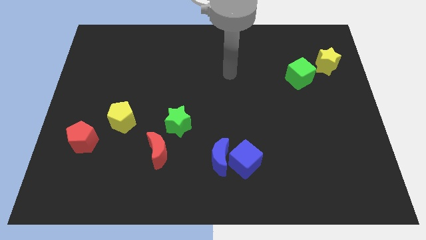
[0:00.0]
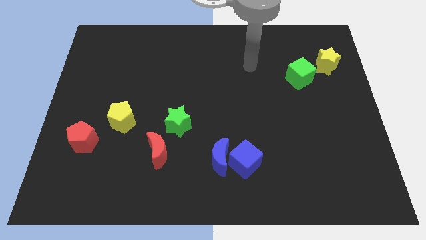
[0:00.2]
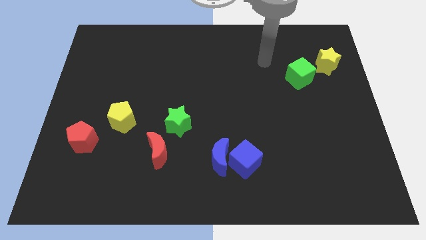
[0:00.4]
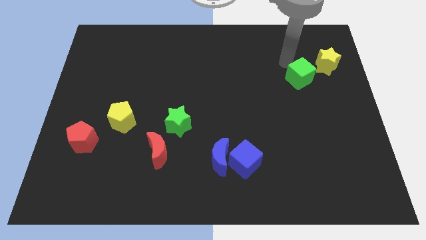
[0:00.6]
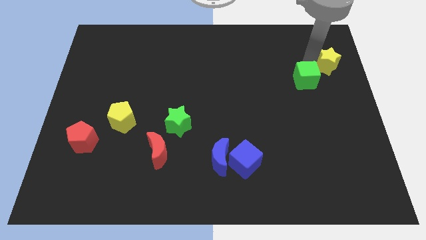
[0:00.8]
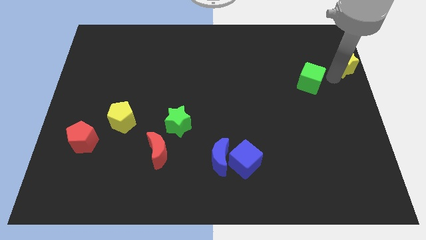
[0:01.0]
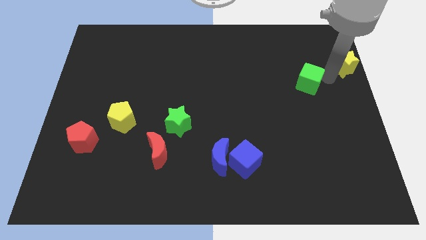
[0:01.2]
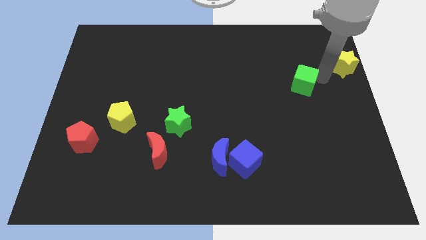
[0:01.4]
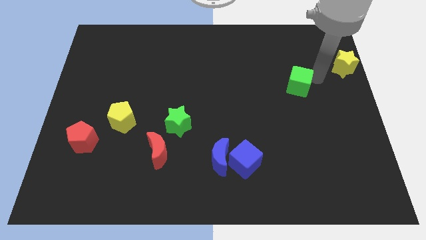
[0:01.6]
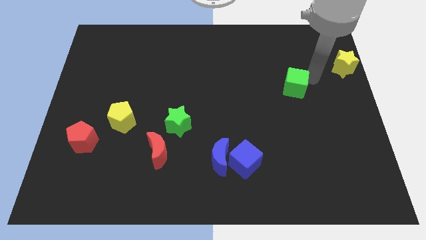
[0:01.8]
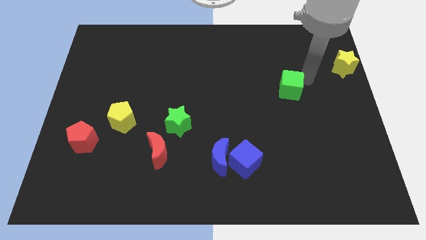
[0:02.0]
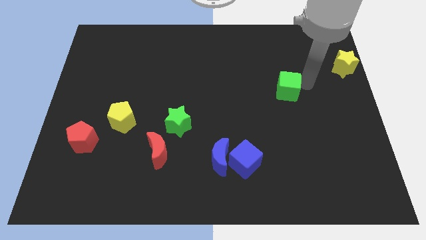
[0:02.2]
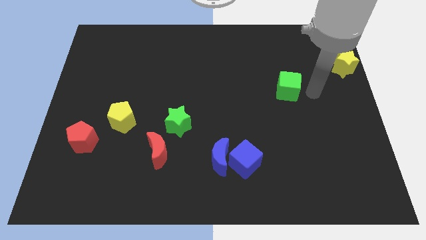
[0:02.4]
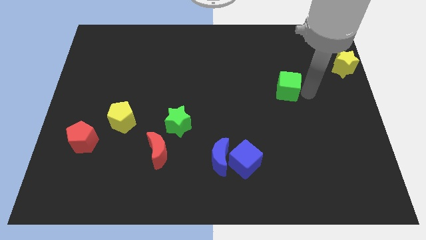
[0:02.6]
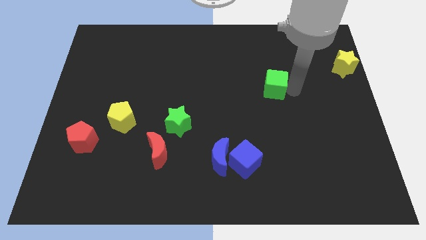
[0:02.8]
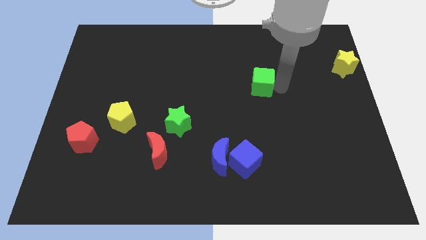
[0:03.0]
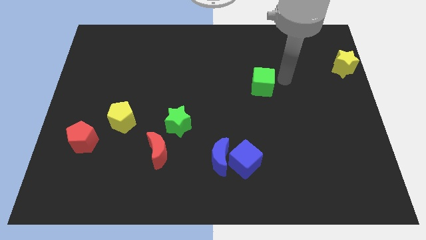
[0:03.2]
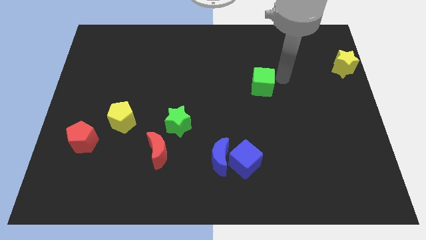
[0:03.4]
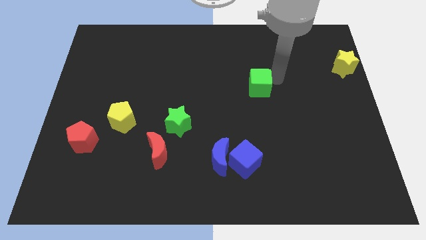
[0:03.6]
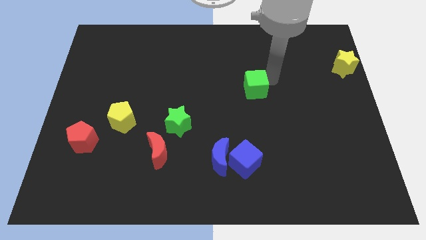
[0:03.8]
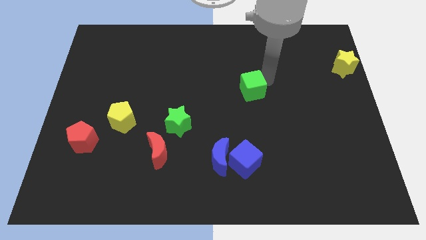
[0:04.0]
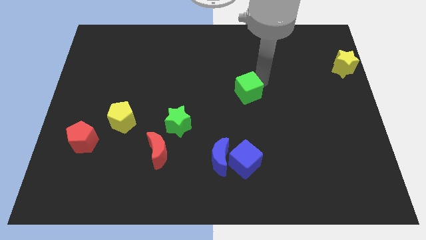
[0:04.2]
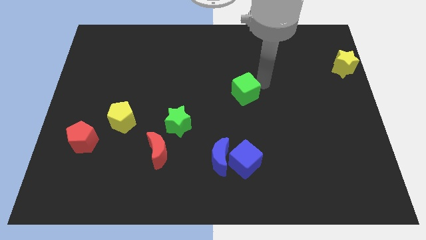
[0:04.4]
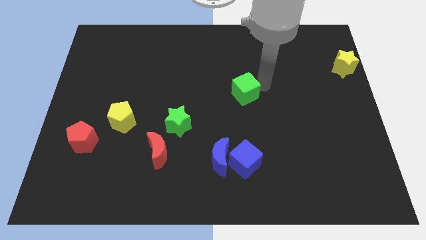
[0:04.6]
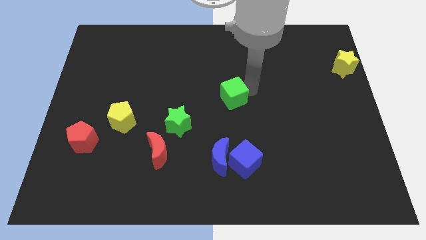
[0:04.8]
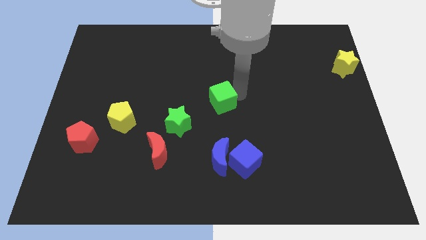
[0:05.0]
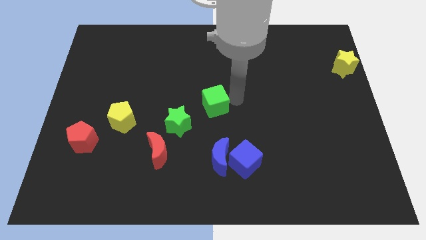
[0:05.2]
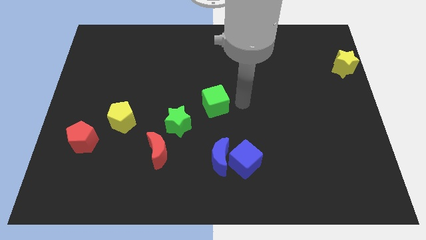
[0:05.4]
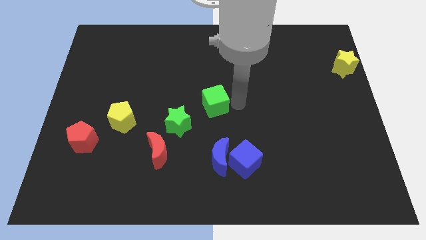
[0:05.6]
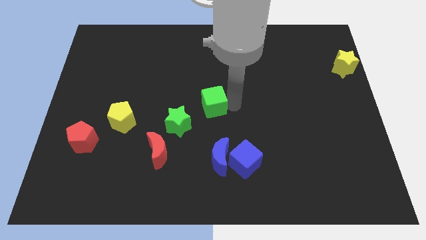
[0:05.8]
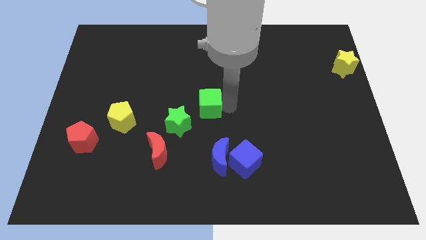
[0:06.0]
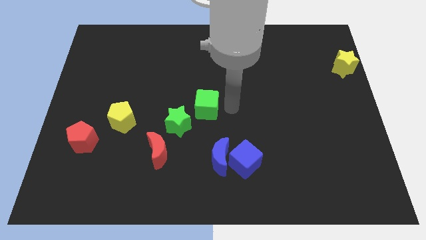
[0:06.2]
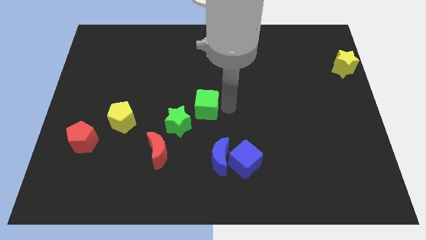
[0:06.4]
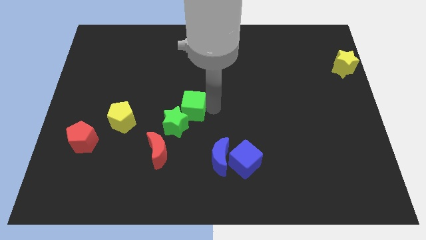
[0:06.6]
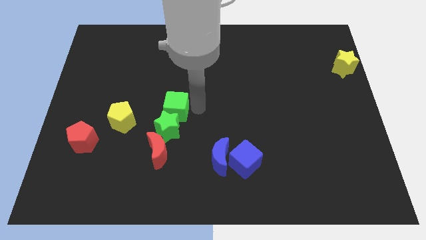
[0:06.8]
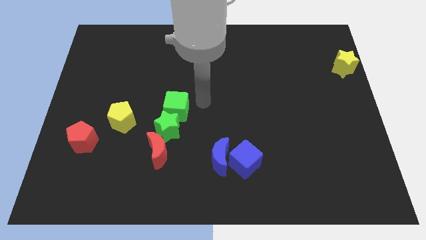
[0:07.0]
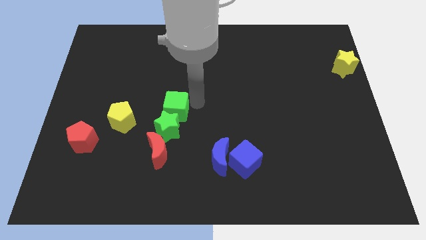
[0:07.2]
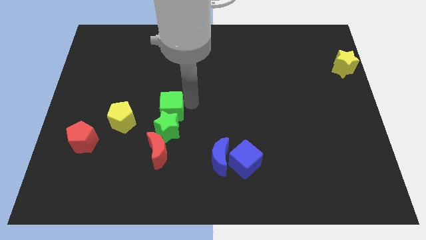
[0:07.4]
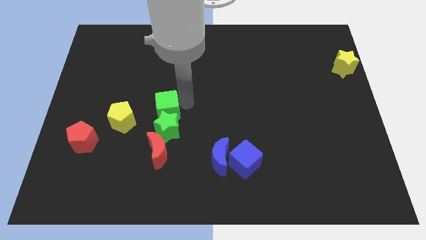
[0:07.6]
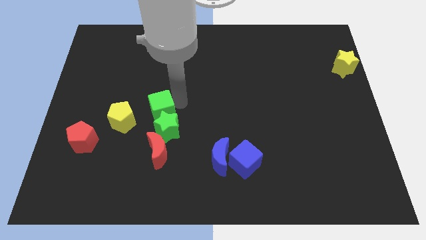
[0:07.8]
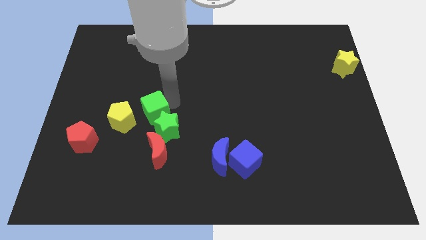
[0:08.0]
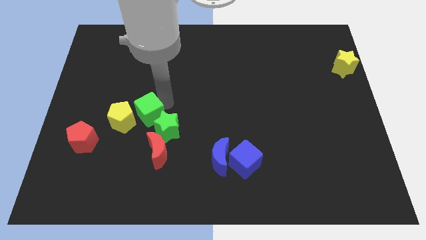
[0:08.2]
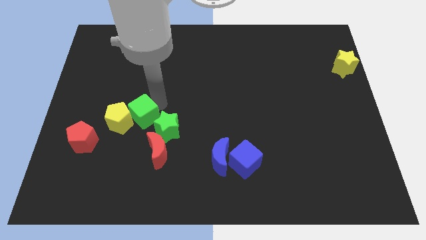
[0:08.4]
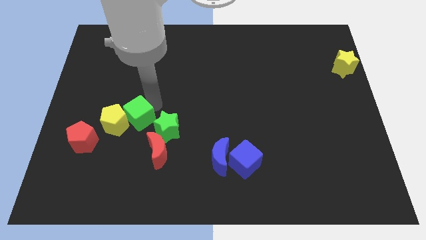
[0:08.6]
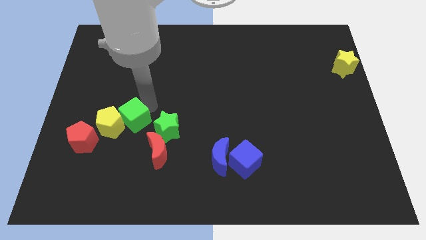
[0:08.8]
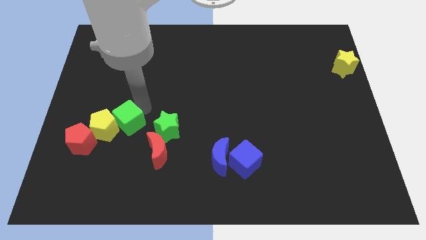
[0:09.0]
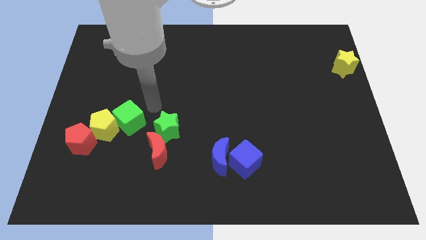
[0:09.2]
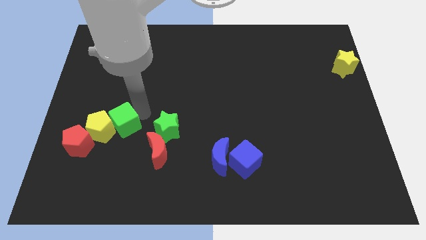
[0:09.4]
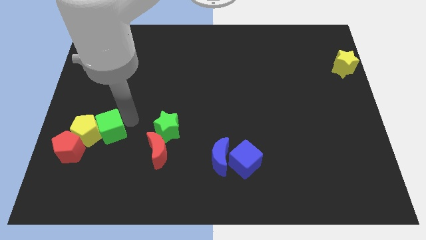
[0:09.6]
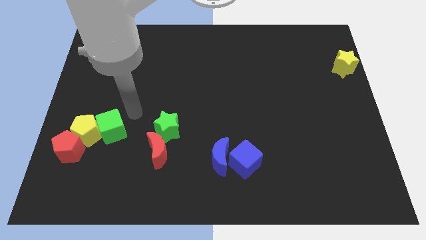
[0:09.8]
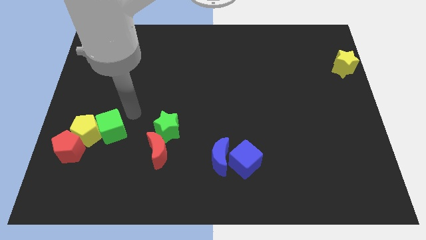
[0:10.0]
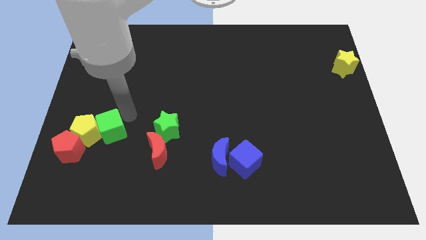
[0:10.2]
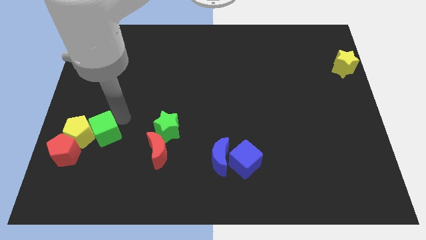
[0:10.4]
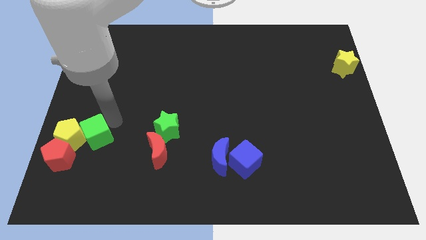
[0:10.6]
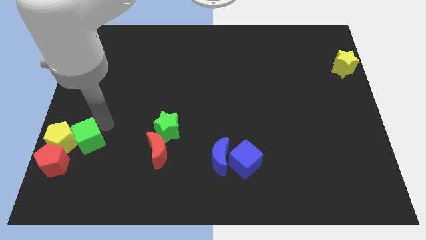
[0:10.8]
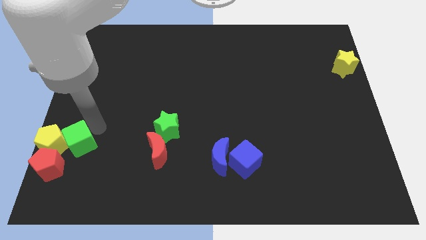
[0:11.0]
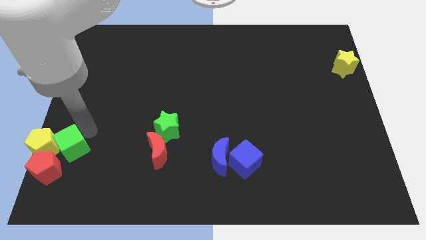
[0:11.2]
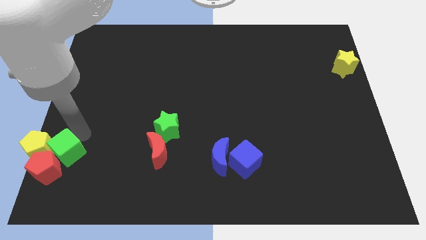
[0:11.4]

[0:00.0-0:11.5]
slide the green cube towards the red pentagon

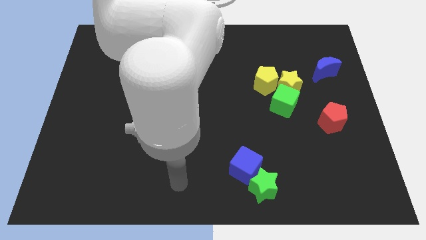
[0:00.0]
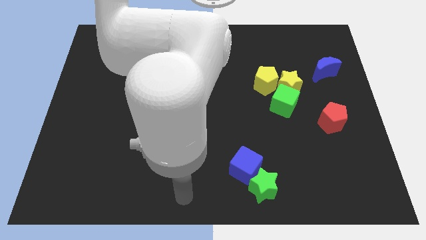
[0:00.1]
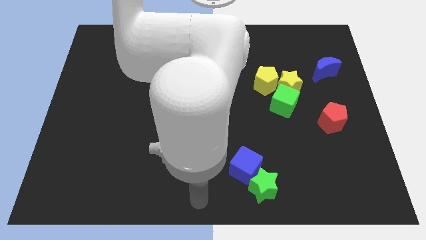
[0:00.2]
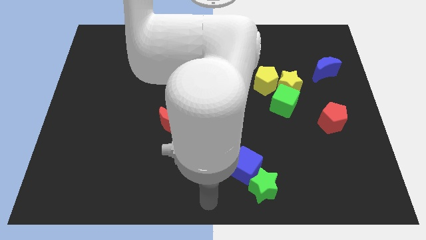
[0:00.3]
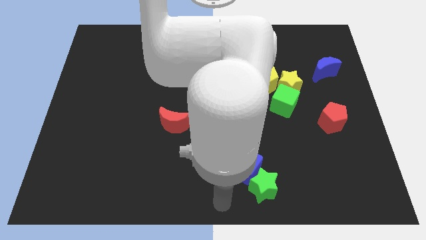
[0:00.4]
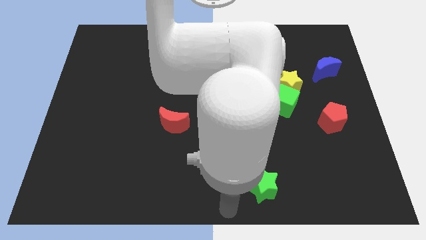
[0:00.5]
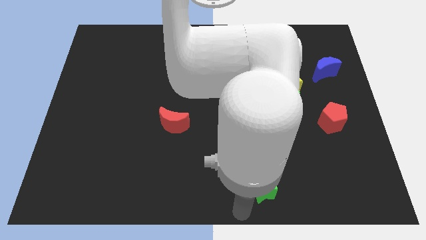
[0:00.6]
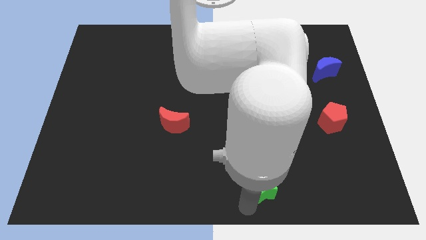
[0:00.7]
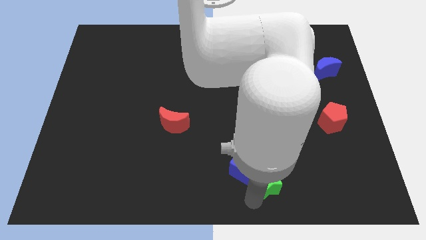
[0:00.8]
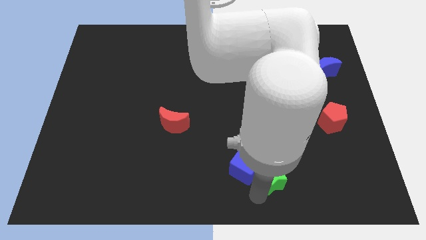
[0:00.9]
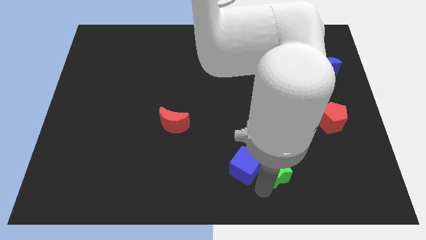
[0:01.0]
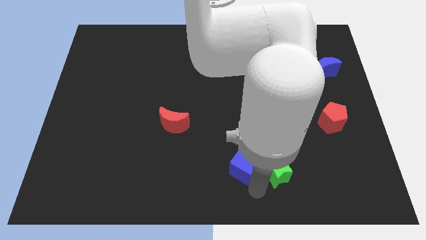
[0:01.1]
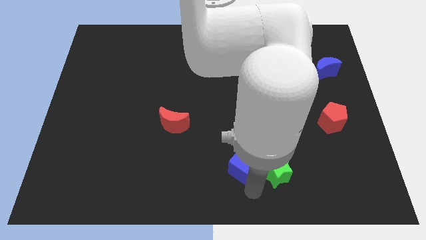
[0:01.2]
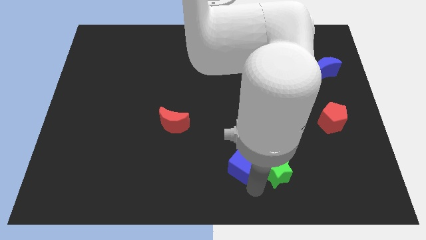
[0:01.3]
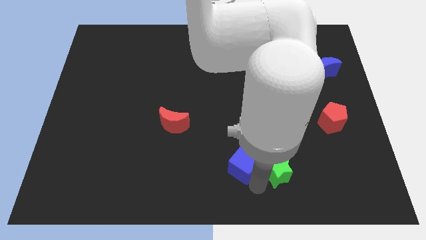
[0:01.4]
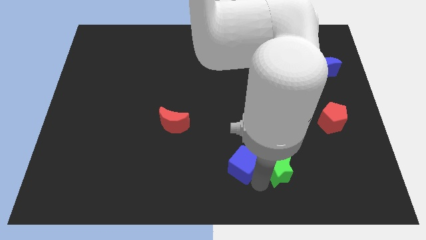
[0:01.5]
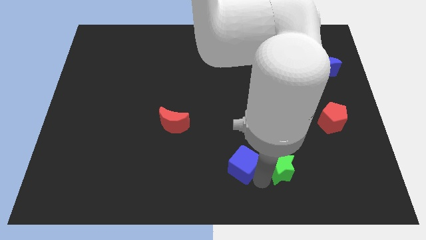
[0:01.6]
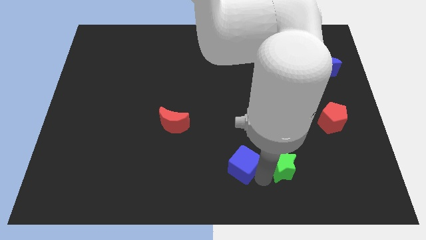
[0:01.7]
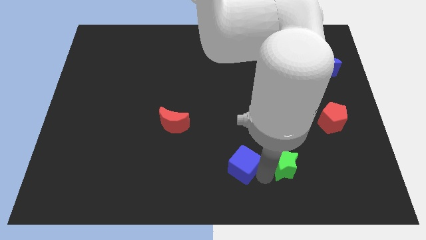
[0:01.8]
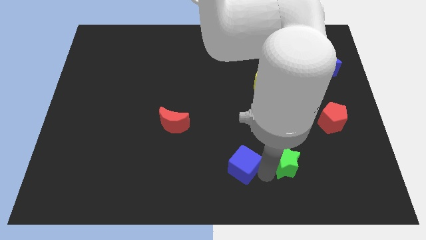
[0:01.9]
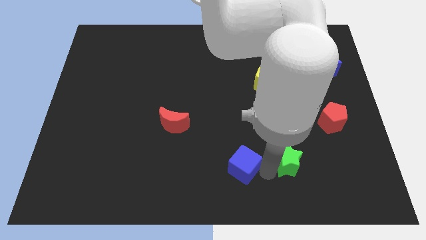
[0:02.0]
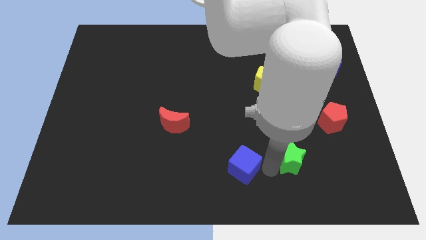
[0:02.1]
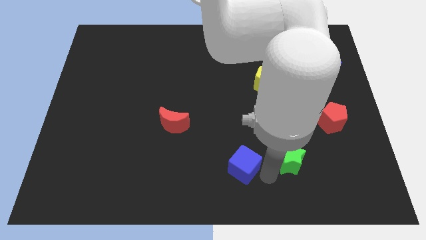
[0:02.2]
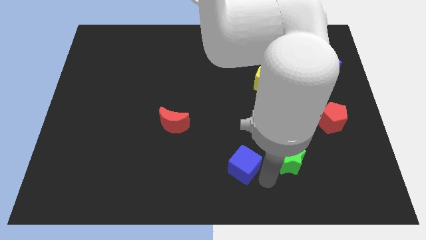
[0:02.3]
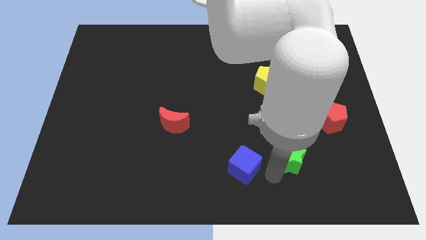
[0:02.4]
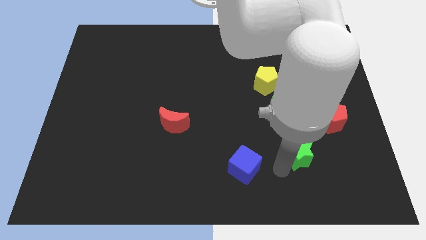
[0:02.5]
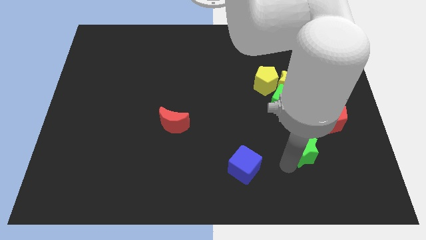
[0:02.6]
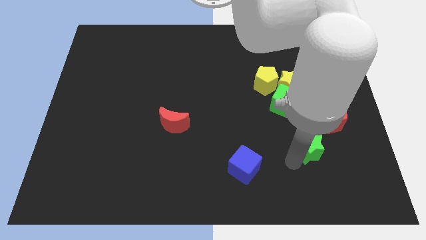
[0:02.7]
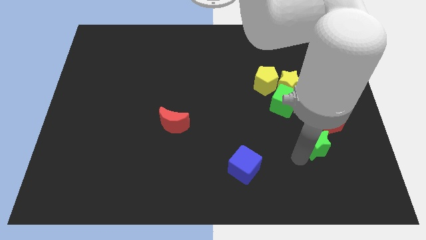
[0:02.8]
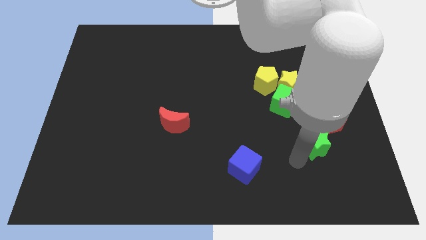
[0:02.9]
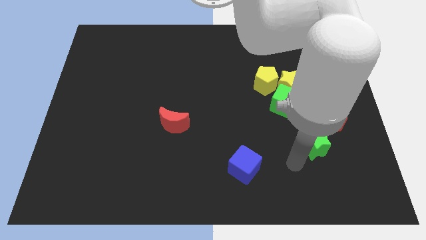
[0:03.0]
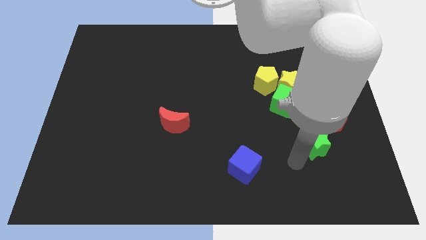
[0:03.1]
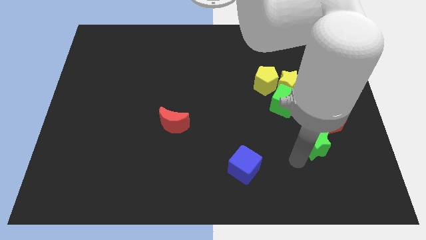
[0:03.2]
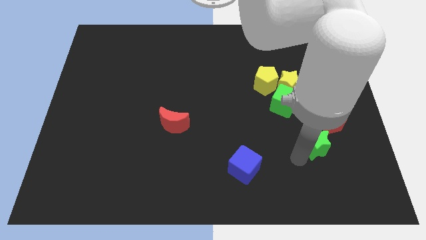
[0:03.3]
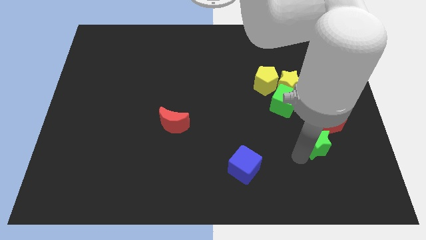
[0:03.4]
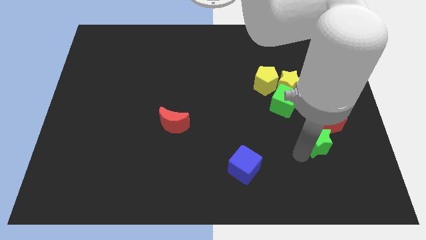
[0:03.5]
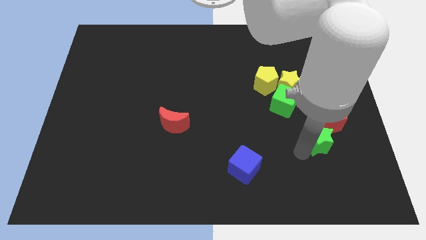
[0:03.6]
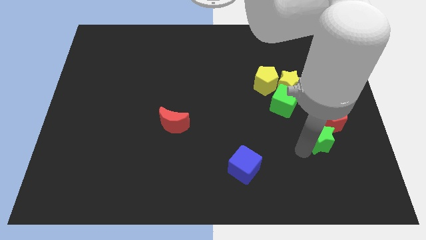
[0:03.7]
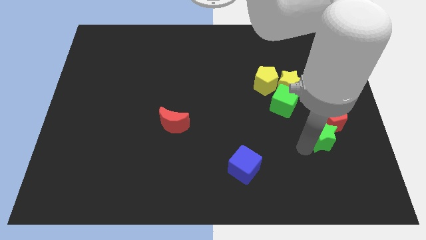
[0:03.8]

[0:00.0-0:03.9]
put the green star close to the red pentagon
